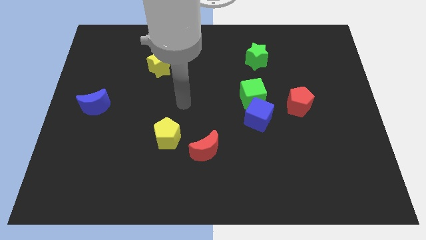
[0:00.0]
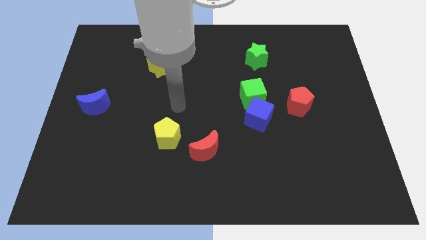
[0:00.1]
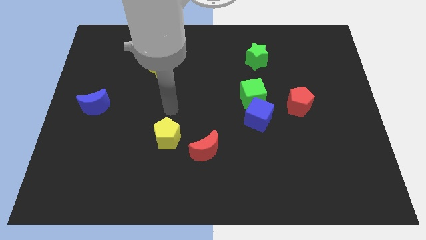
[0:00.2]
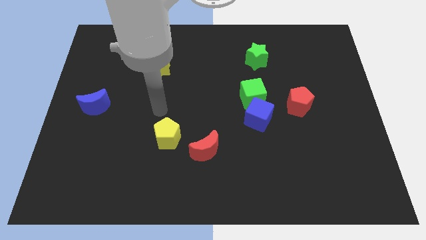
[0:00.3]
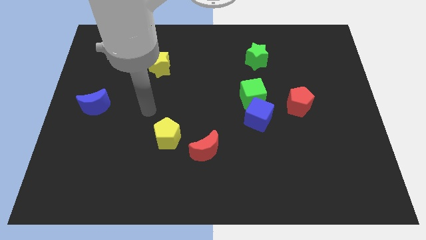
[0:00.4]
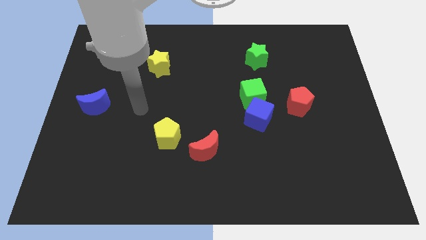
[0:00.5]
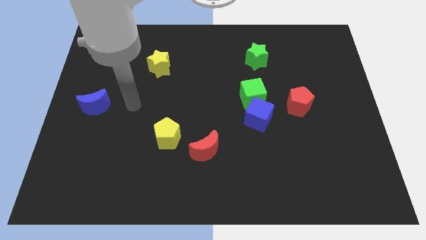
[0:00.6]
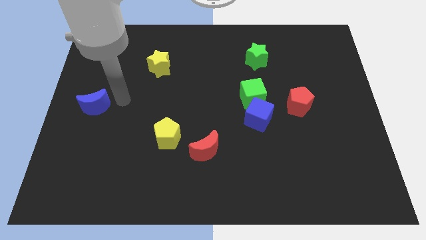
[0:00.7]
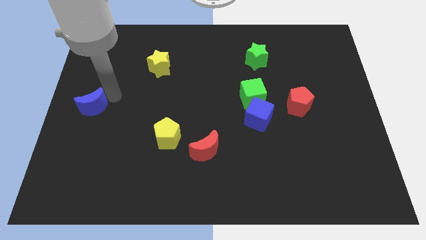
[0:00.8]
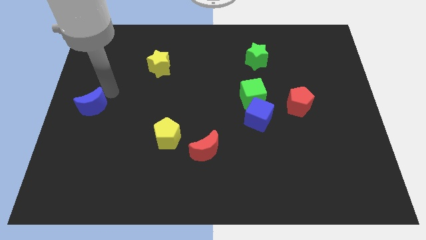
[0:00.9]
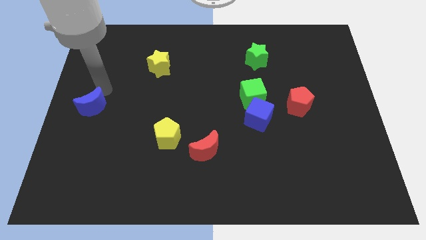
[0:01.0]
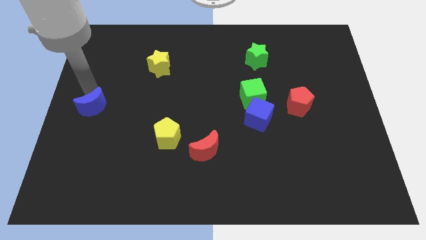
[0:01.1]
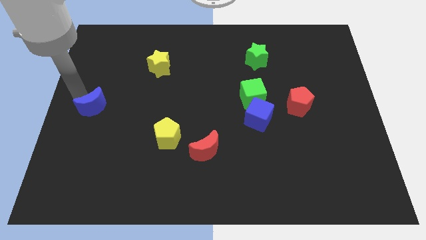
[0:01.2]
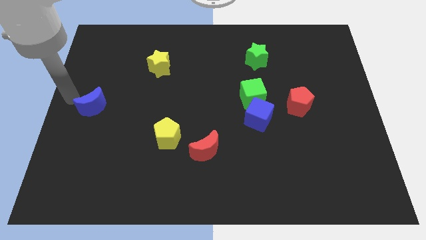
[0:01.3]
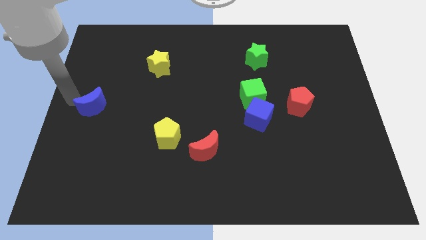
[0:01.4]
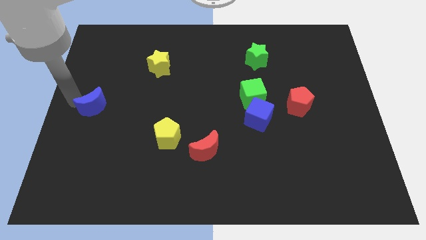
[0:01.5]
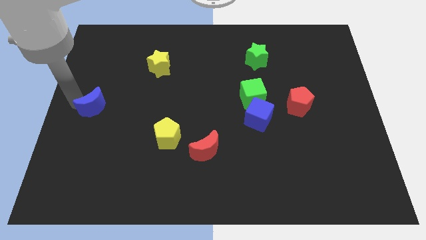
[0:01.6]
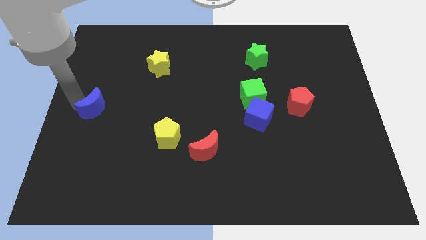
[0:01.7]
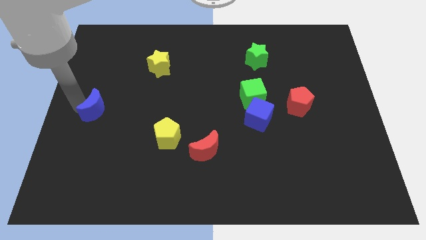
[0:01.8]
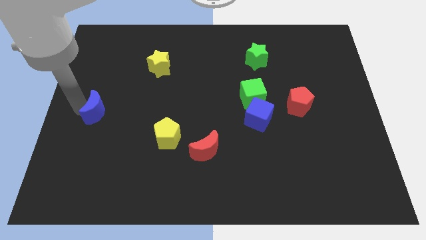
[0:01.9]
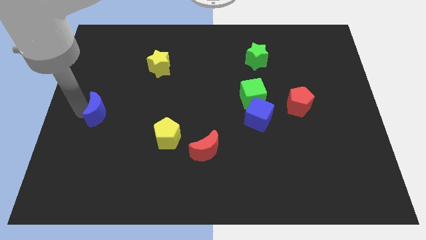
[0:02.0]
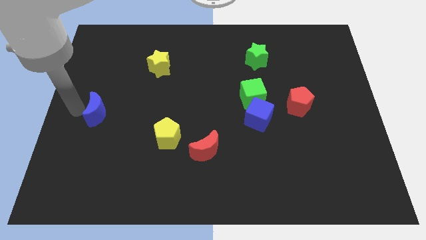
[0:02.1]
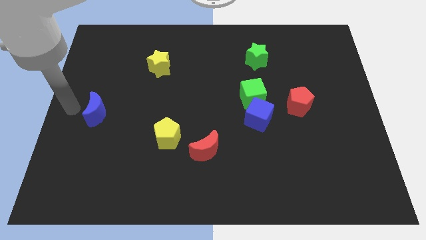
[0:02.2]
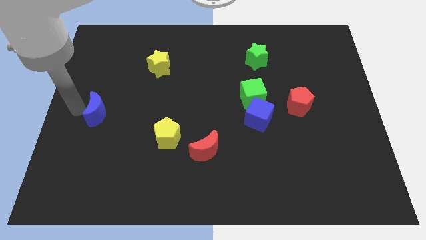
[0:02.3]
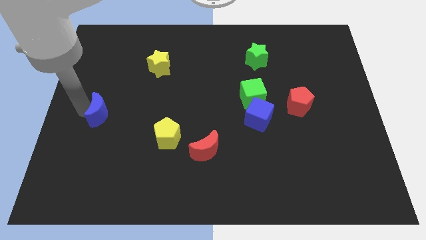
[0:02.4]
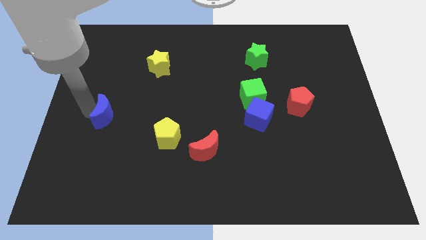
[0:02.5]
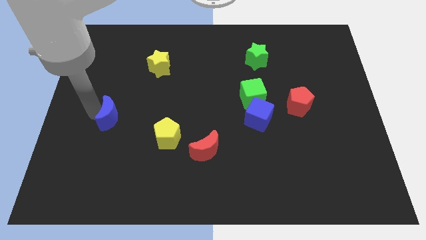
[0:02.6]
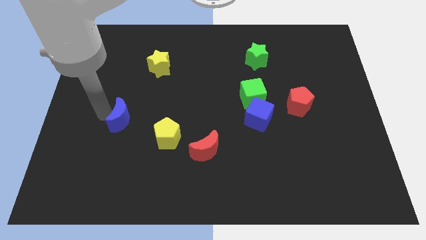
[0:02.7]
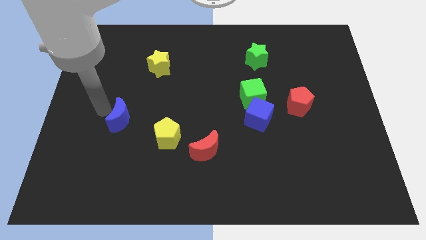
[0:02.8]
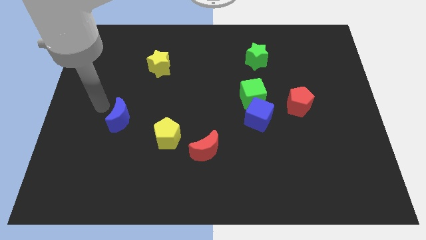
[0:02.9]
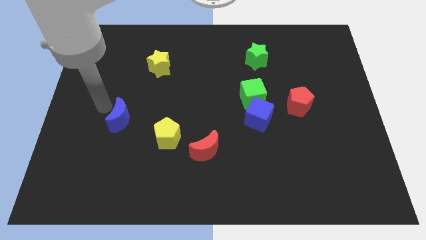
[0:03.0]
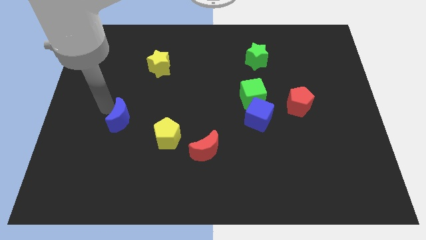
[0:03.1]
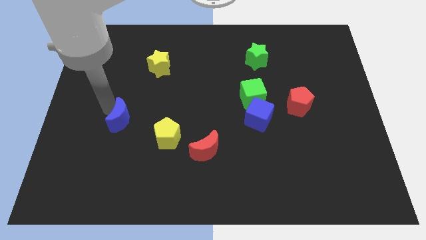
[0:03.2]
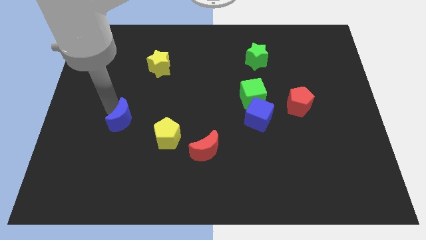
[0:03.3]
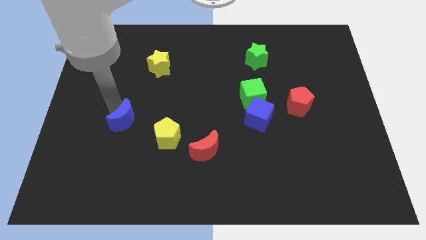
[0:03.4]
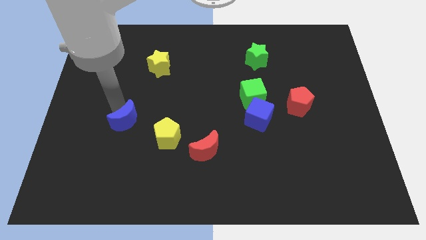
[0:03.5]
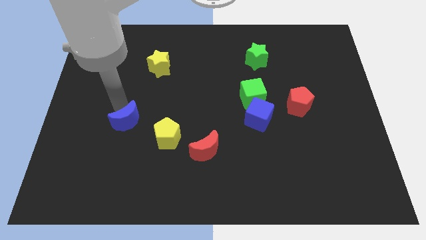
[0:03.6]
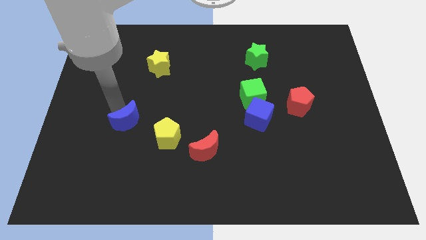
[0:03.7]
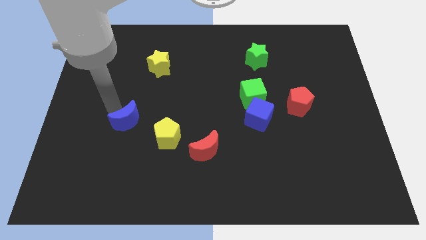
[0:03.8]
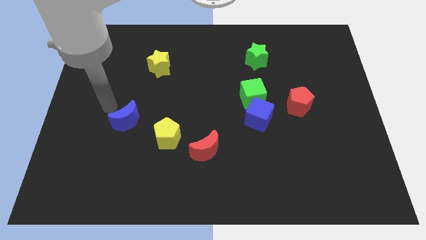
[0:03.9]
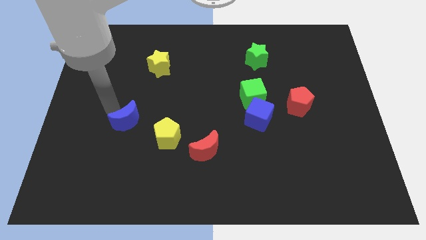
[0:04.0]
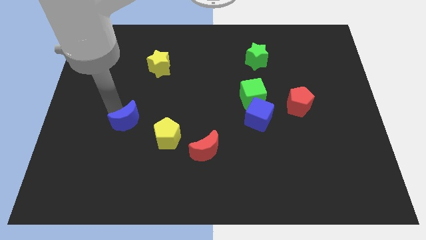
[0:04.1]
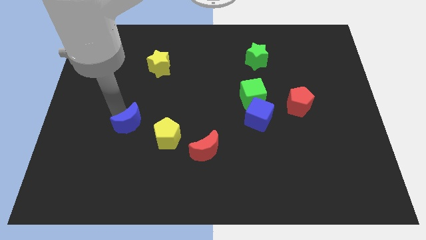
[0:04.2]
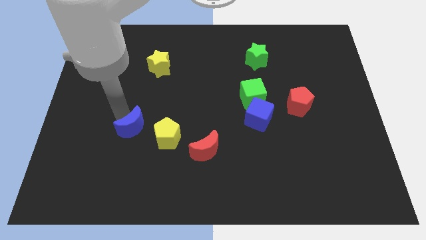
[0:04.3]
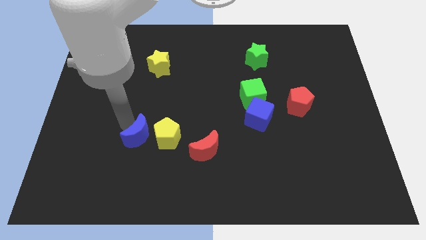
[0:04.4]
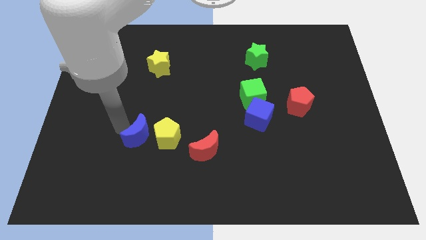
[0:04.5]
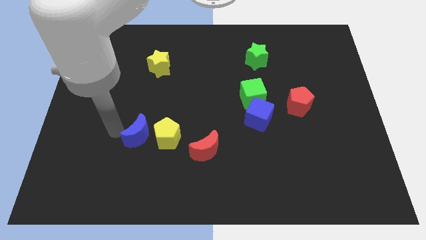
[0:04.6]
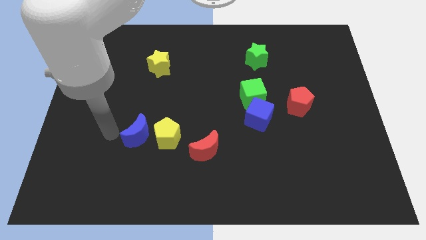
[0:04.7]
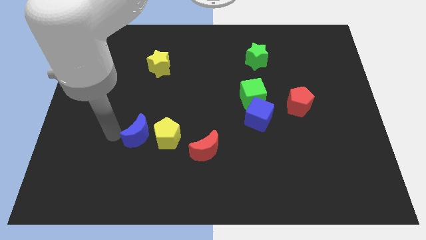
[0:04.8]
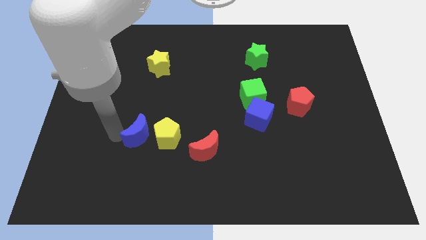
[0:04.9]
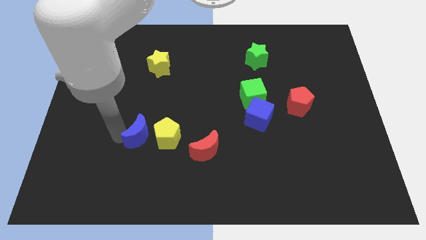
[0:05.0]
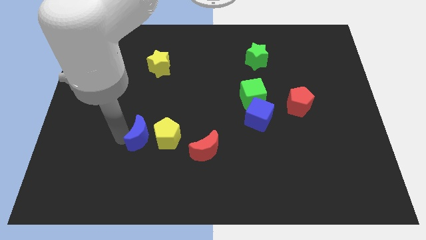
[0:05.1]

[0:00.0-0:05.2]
slide the blue moon to the yellow pentagon
